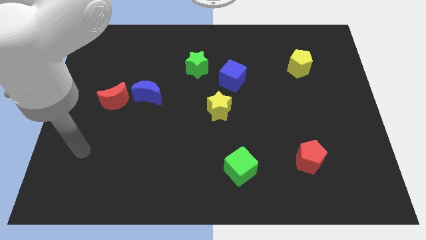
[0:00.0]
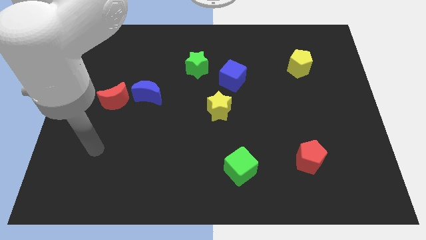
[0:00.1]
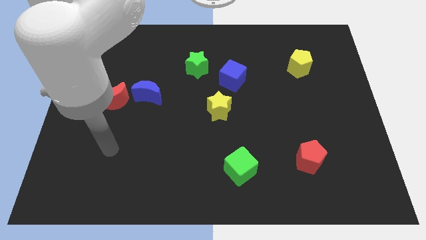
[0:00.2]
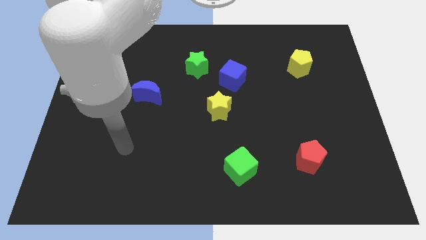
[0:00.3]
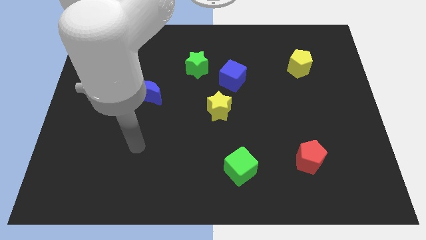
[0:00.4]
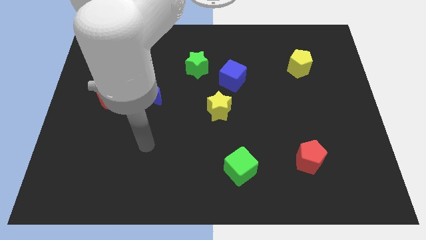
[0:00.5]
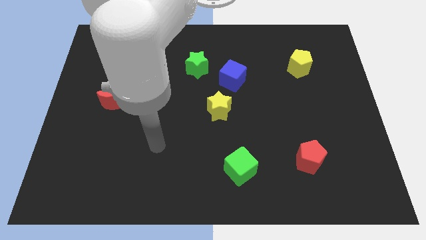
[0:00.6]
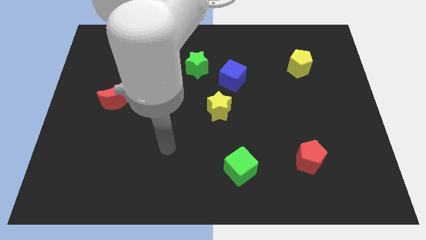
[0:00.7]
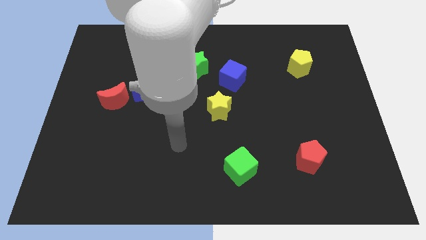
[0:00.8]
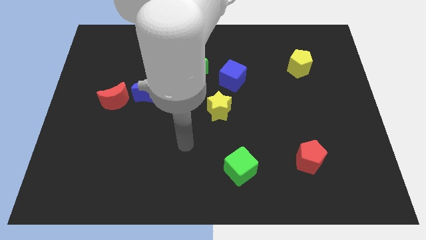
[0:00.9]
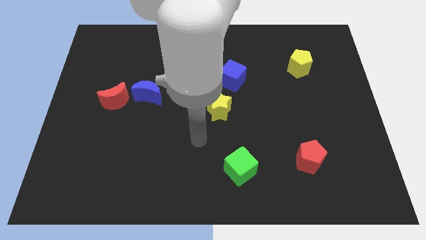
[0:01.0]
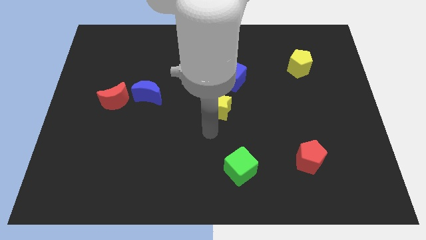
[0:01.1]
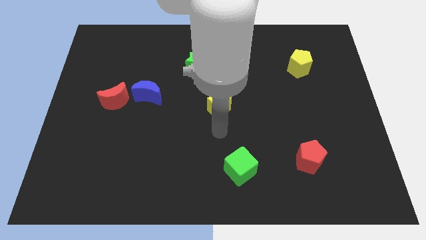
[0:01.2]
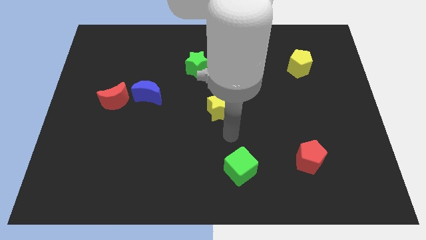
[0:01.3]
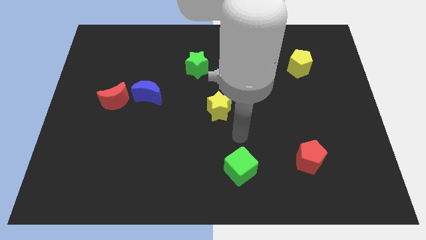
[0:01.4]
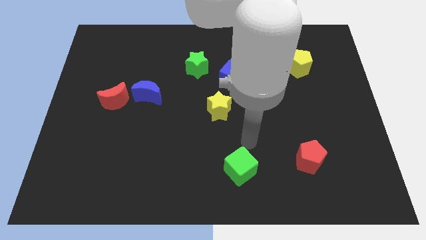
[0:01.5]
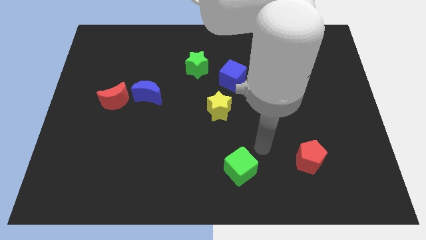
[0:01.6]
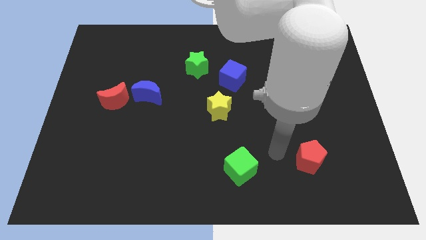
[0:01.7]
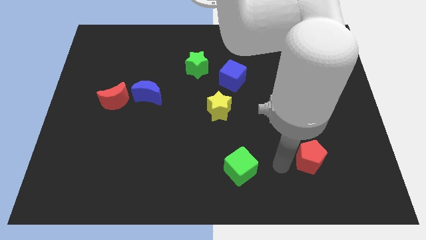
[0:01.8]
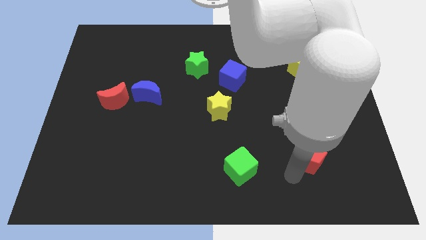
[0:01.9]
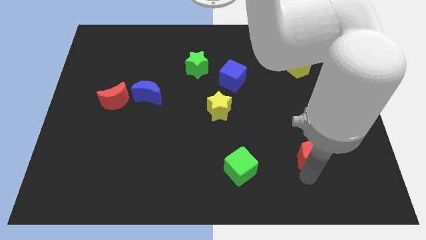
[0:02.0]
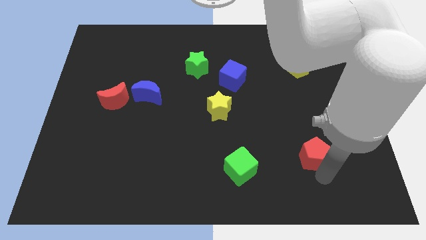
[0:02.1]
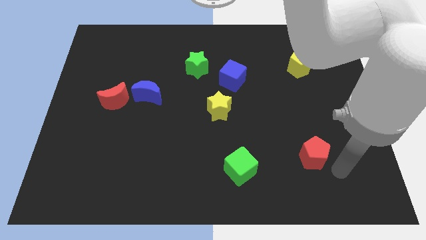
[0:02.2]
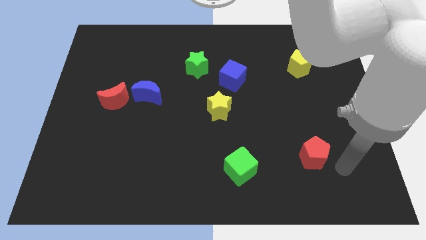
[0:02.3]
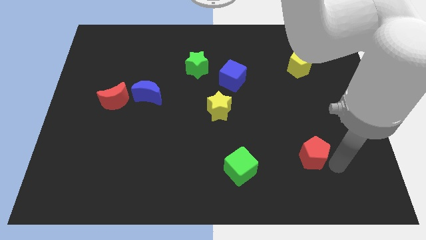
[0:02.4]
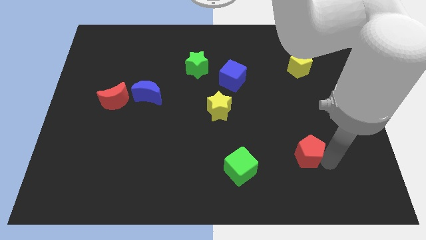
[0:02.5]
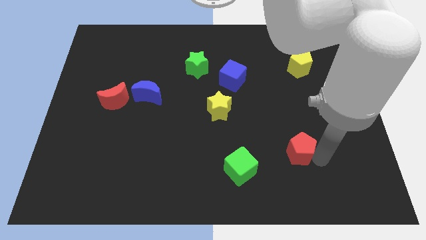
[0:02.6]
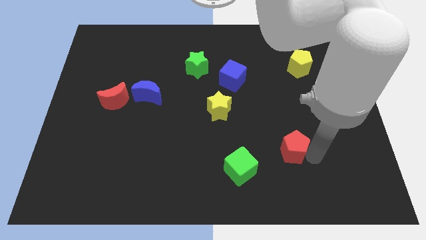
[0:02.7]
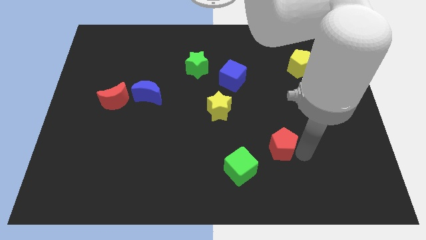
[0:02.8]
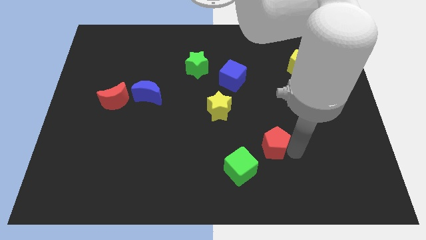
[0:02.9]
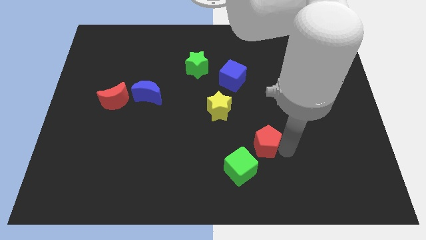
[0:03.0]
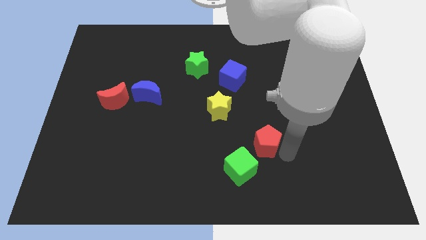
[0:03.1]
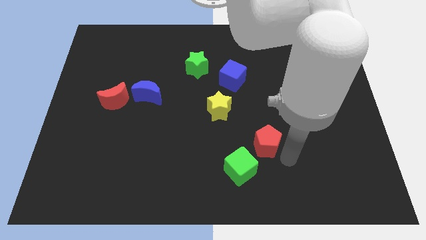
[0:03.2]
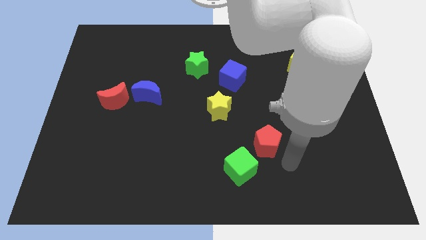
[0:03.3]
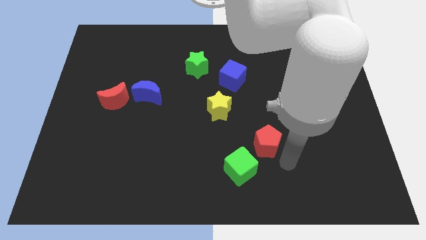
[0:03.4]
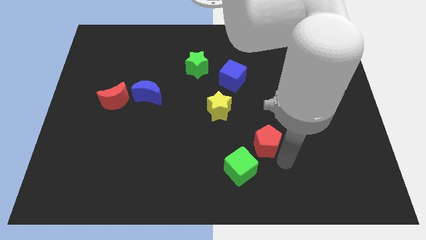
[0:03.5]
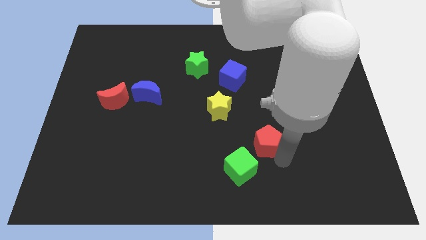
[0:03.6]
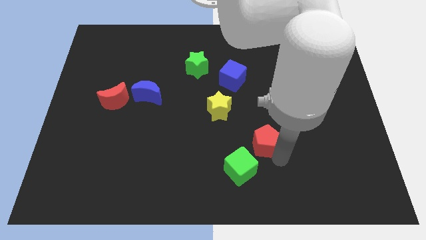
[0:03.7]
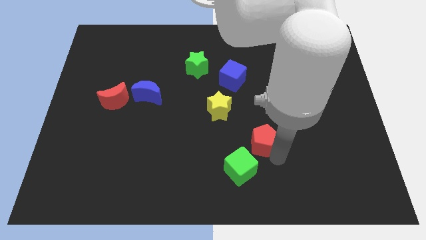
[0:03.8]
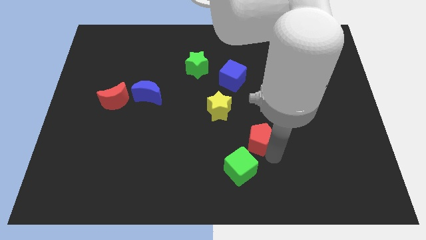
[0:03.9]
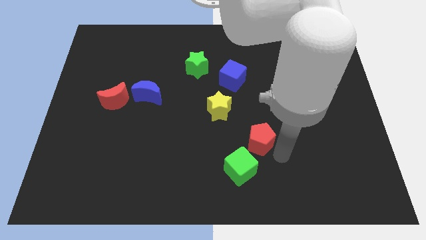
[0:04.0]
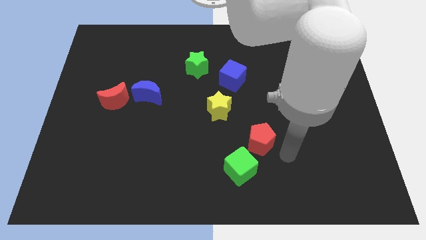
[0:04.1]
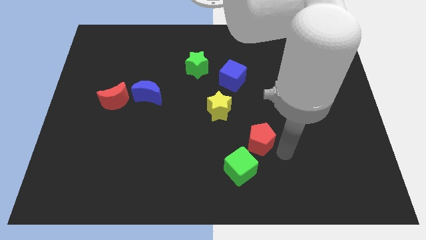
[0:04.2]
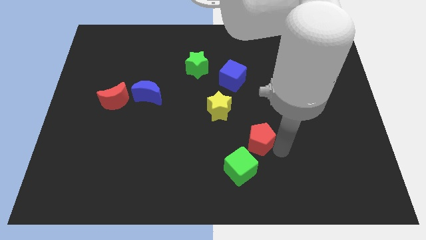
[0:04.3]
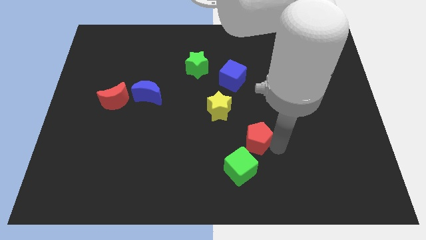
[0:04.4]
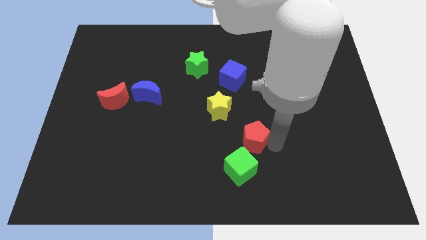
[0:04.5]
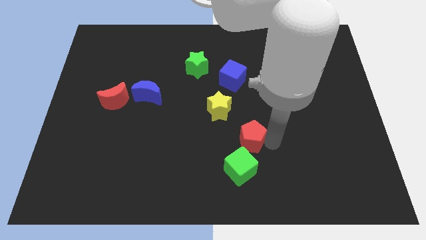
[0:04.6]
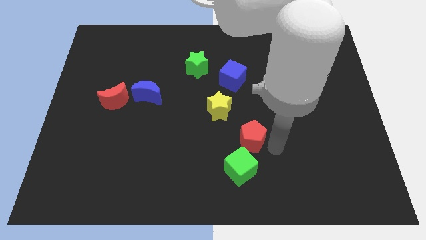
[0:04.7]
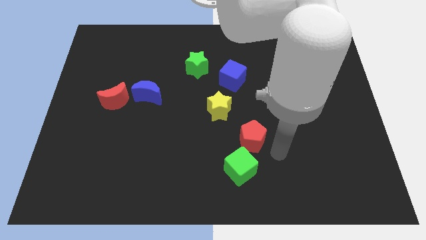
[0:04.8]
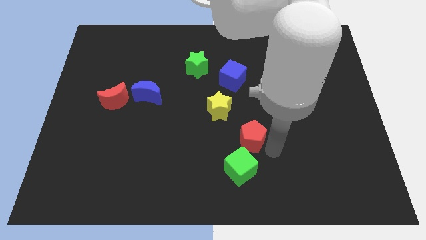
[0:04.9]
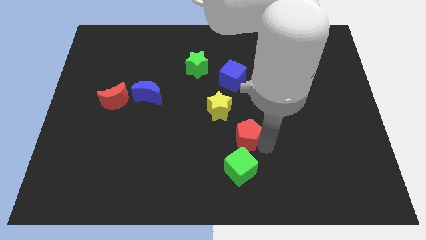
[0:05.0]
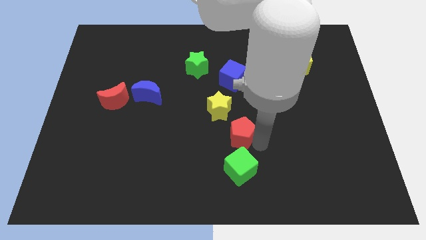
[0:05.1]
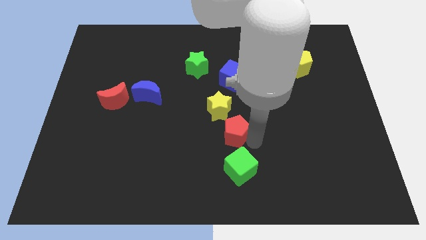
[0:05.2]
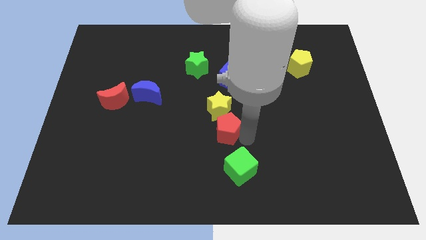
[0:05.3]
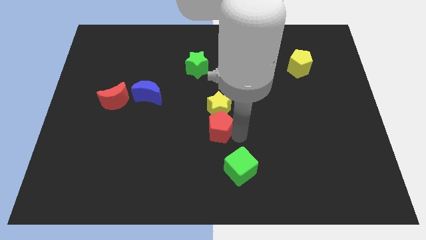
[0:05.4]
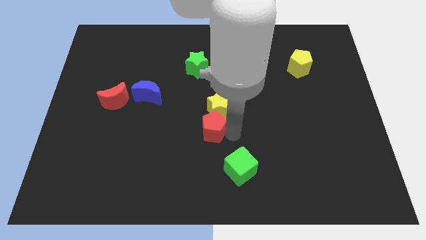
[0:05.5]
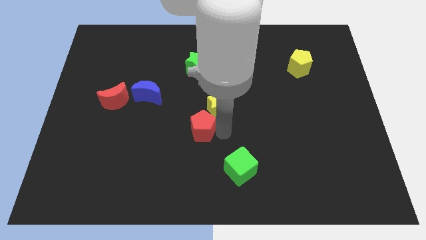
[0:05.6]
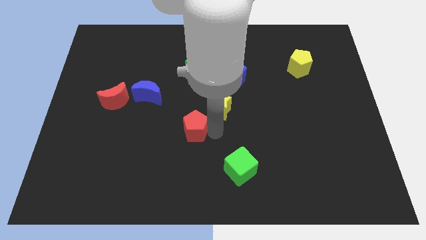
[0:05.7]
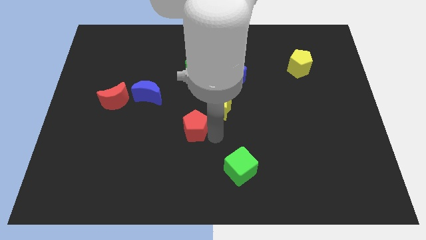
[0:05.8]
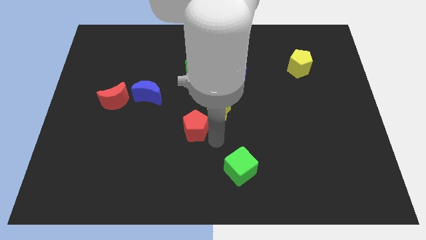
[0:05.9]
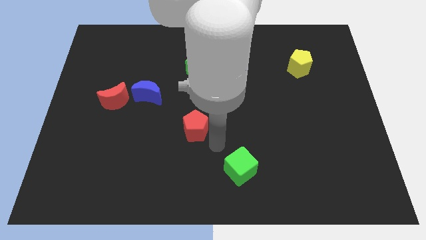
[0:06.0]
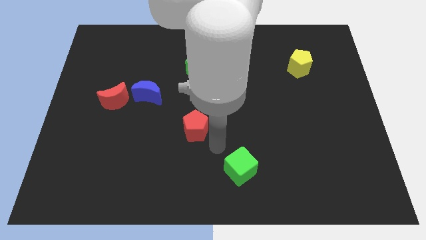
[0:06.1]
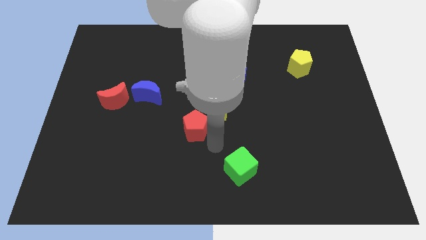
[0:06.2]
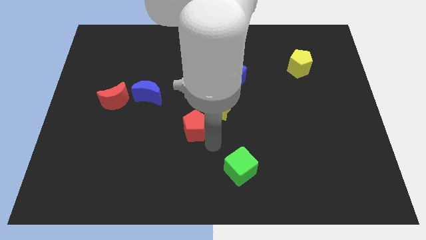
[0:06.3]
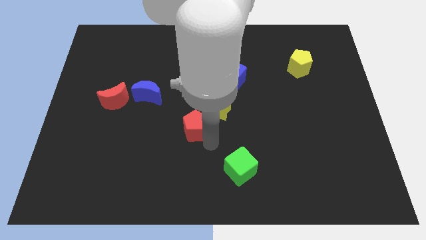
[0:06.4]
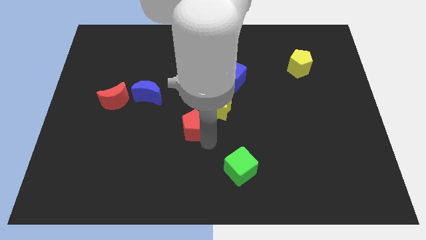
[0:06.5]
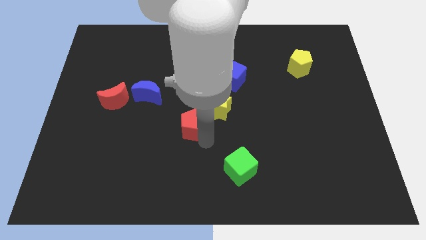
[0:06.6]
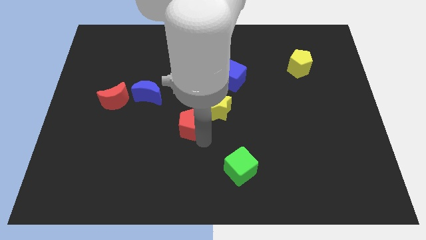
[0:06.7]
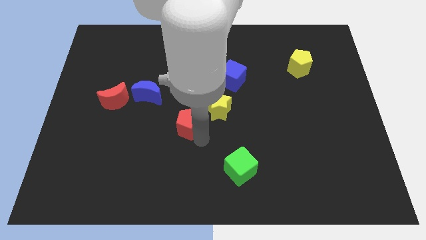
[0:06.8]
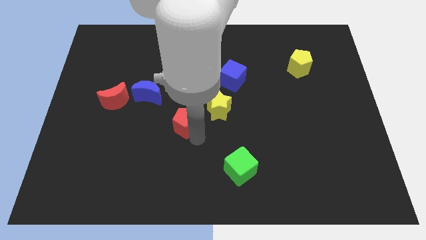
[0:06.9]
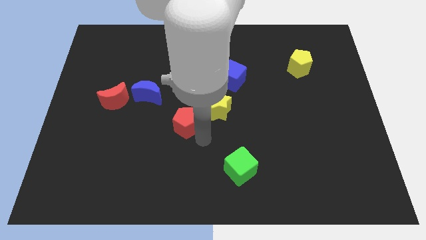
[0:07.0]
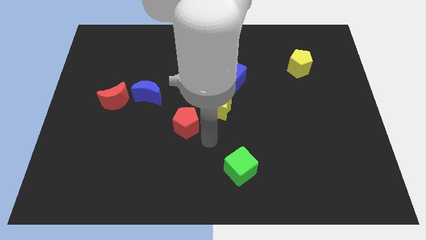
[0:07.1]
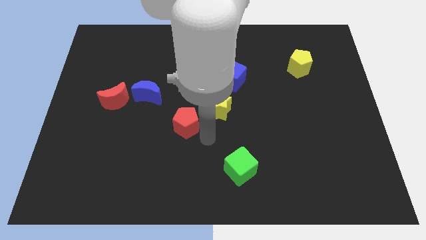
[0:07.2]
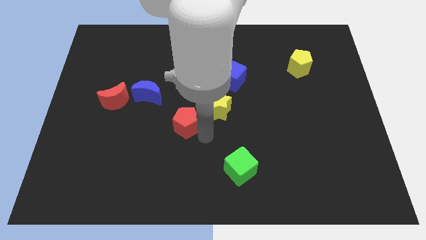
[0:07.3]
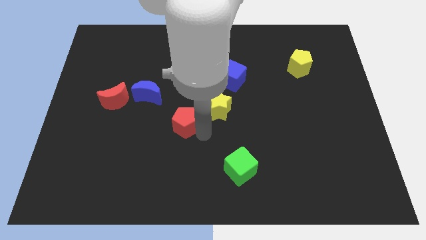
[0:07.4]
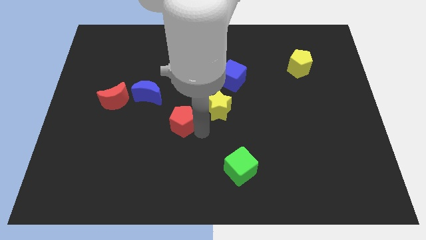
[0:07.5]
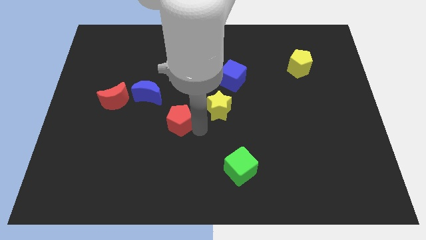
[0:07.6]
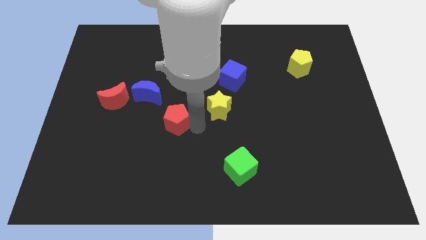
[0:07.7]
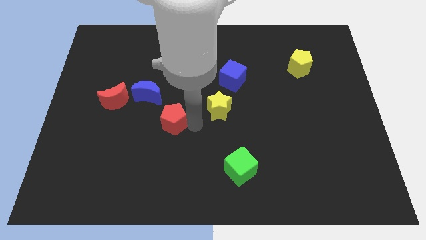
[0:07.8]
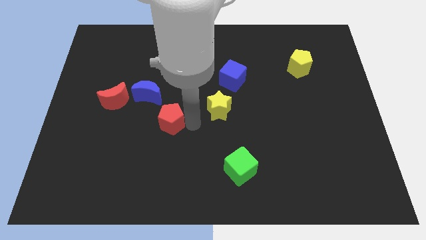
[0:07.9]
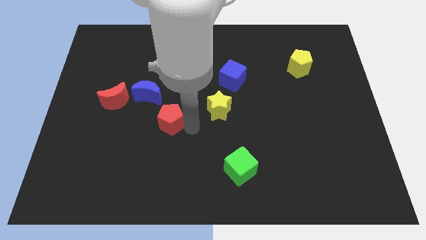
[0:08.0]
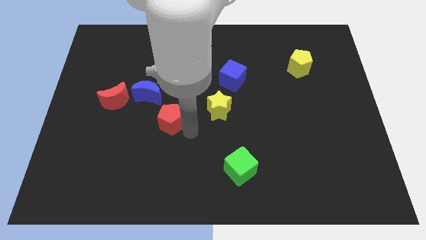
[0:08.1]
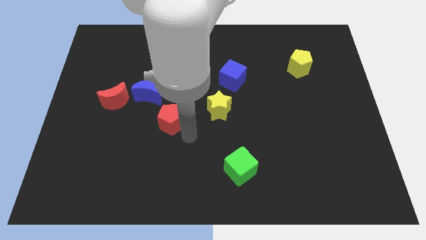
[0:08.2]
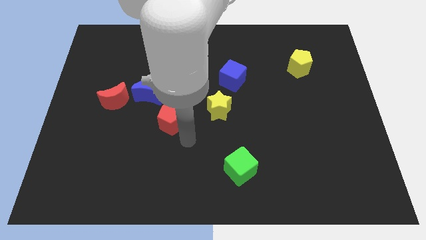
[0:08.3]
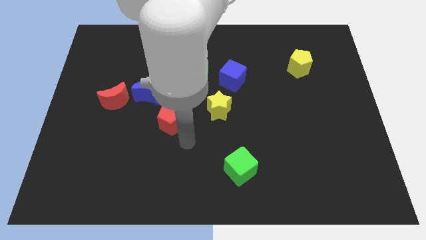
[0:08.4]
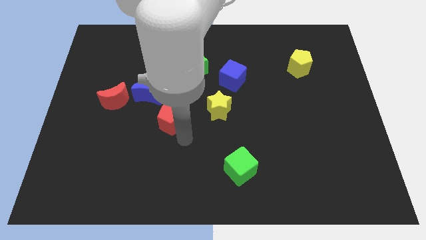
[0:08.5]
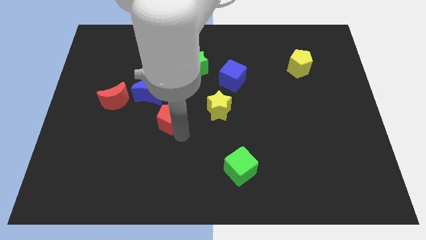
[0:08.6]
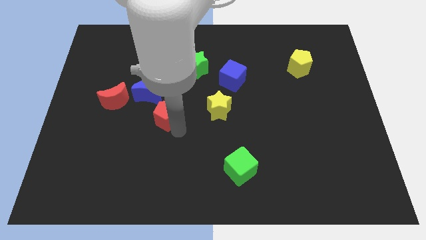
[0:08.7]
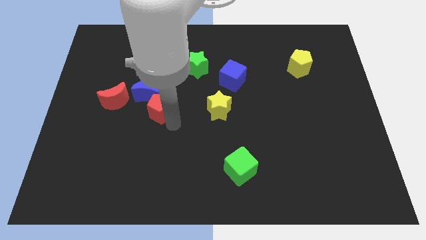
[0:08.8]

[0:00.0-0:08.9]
slide the red pentagon towards the blue moon
